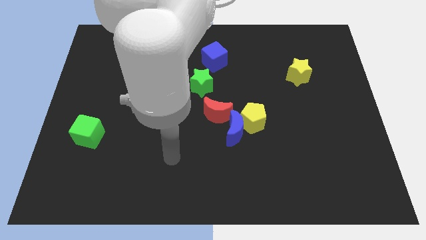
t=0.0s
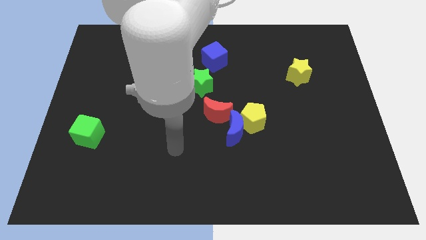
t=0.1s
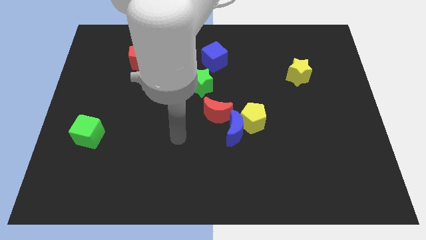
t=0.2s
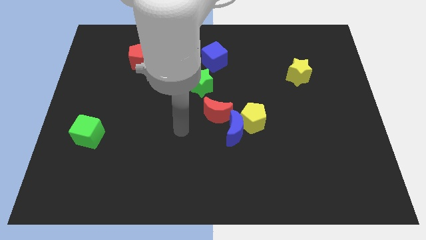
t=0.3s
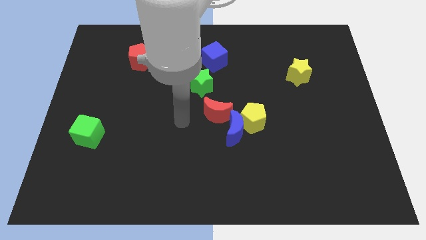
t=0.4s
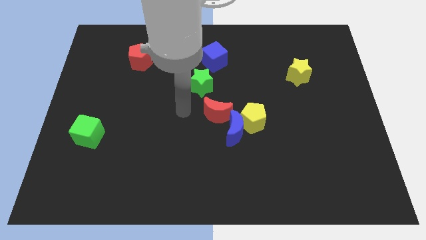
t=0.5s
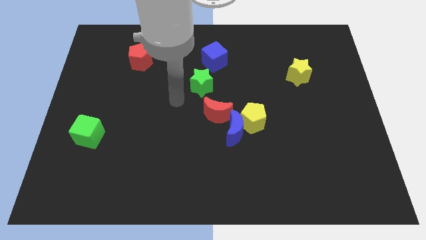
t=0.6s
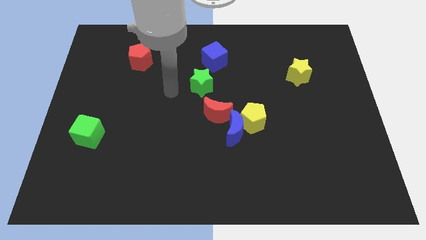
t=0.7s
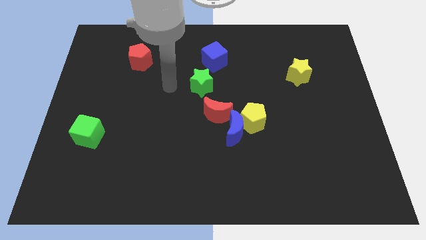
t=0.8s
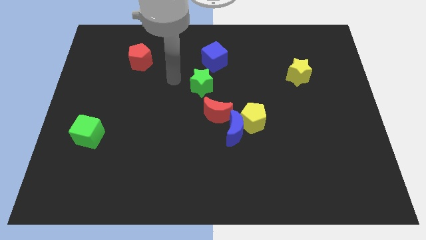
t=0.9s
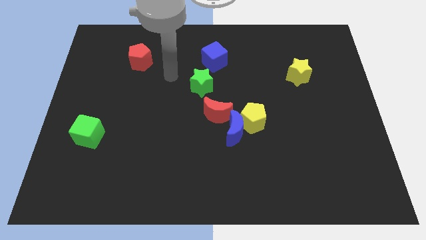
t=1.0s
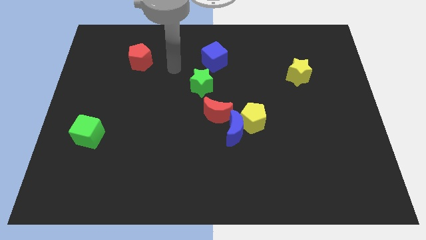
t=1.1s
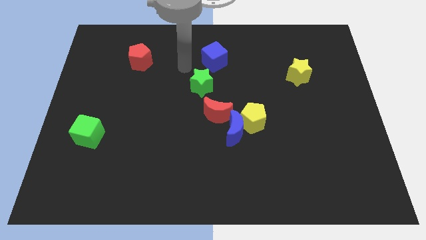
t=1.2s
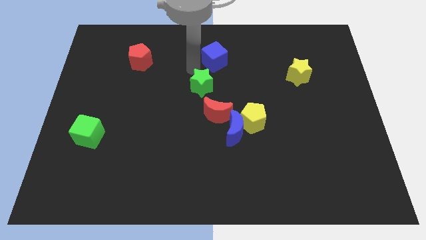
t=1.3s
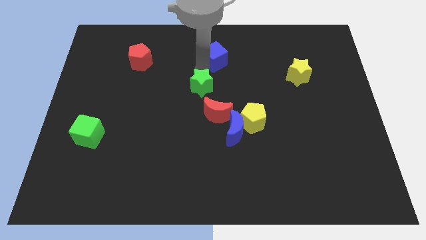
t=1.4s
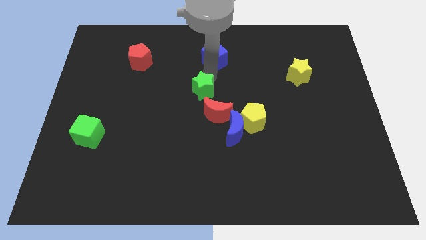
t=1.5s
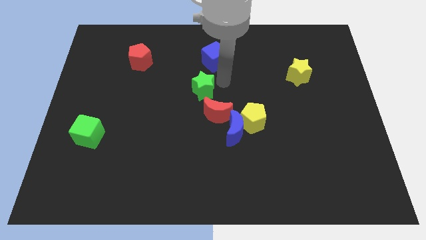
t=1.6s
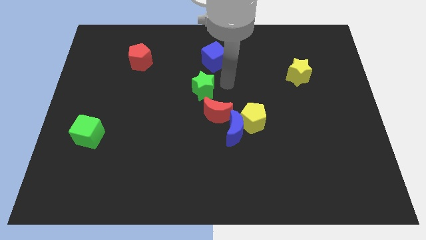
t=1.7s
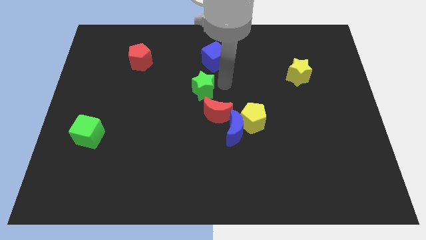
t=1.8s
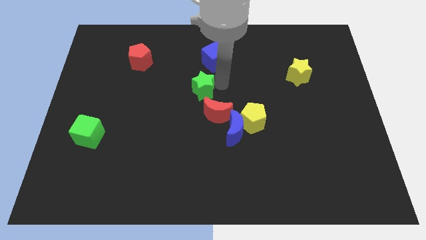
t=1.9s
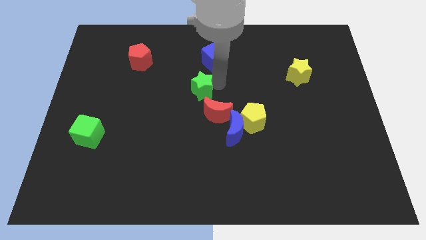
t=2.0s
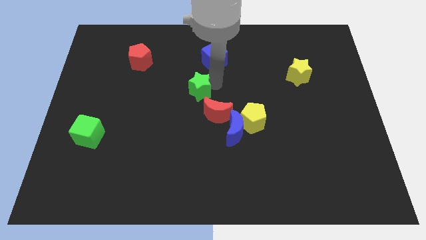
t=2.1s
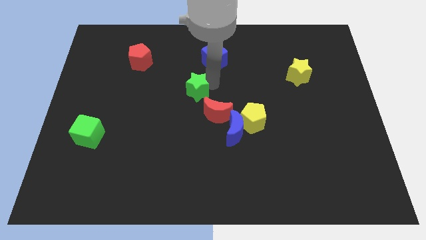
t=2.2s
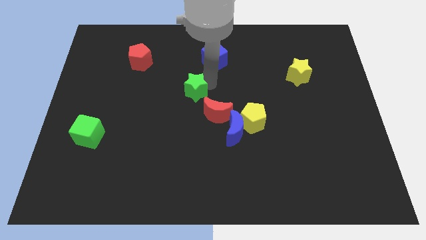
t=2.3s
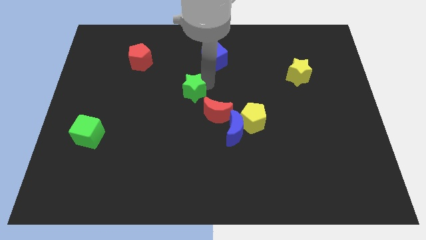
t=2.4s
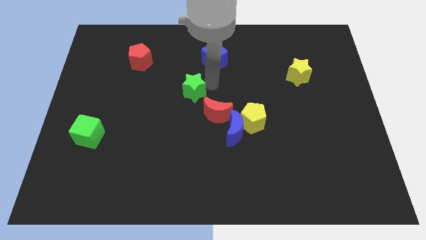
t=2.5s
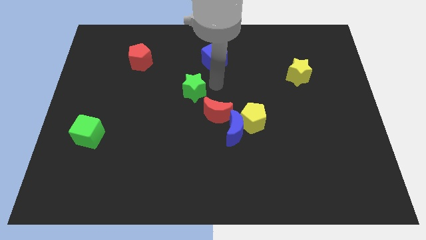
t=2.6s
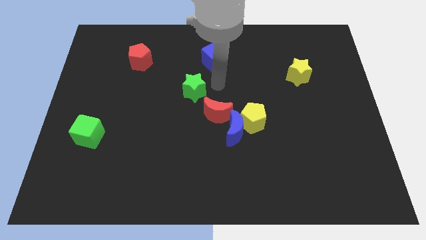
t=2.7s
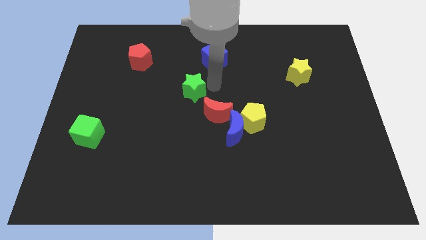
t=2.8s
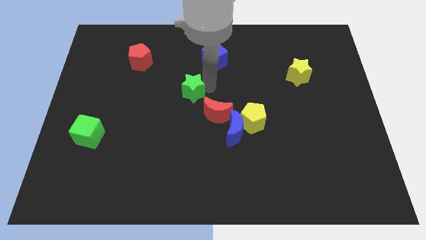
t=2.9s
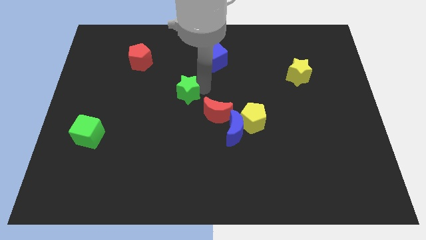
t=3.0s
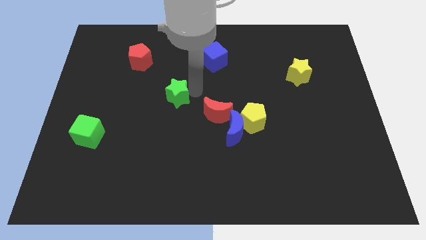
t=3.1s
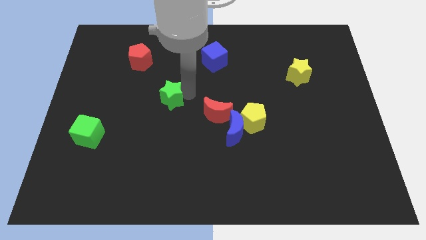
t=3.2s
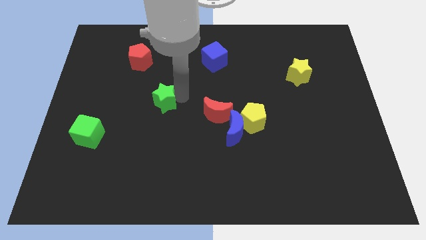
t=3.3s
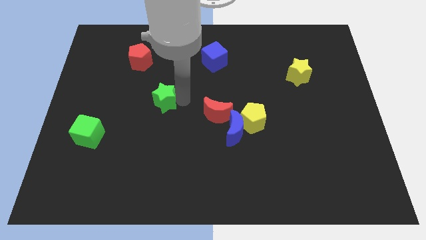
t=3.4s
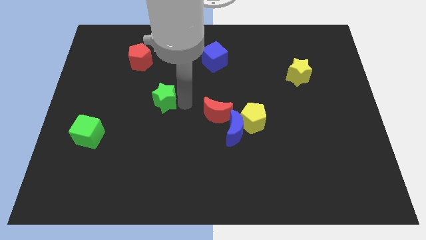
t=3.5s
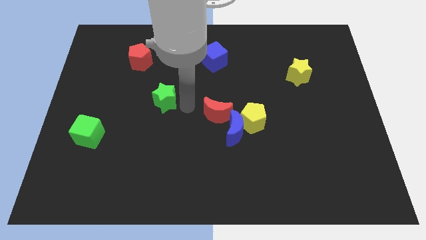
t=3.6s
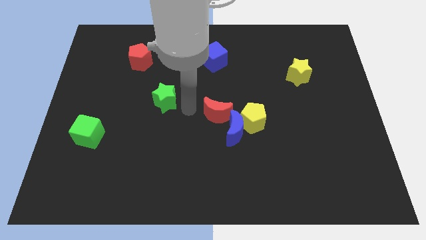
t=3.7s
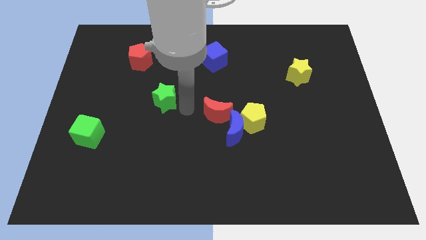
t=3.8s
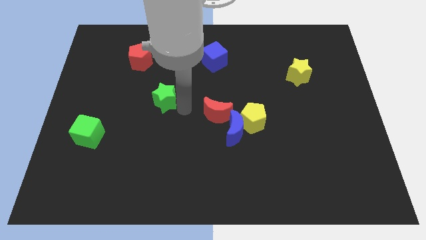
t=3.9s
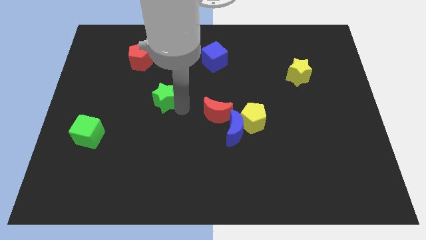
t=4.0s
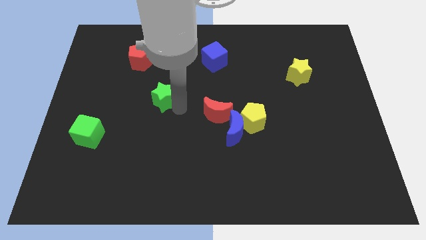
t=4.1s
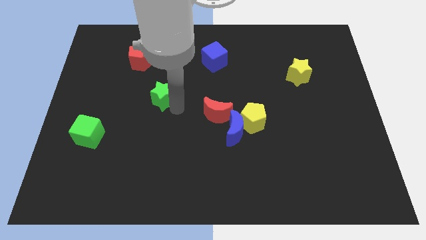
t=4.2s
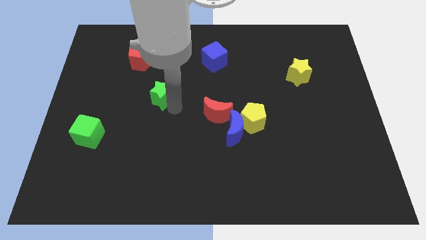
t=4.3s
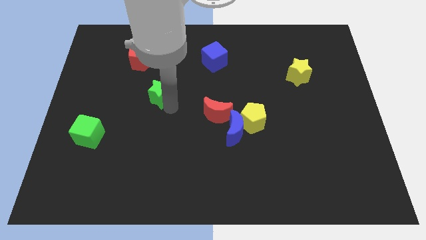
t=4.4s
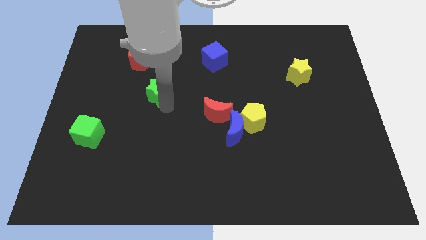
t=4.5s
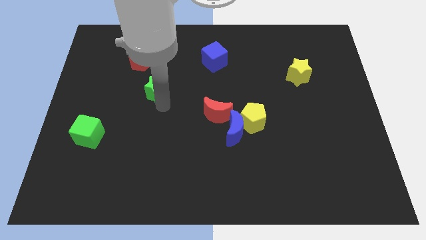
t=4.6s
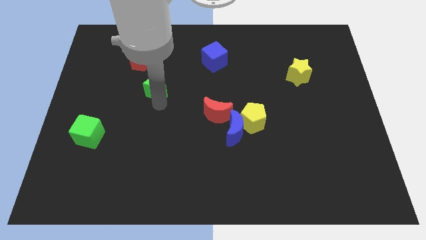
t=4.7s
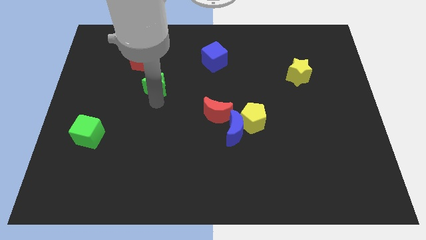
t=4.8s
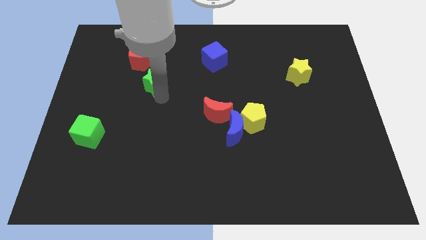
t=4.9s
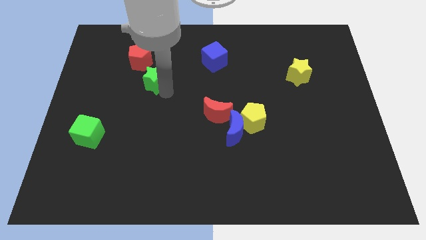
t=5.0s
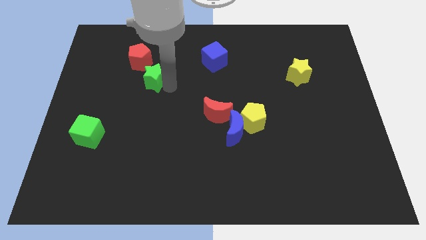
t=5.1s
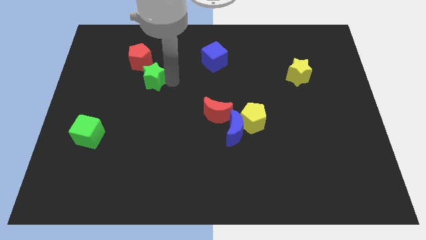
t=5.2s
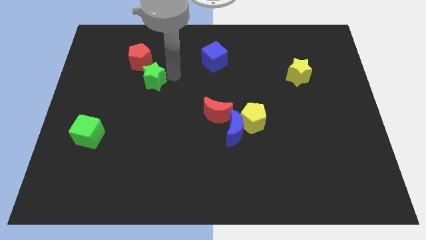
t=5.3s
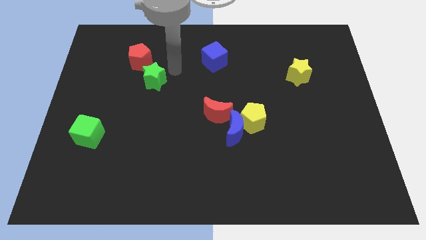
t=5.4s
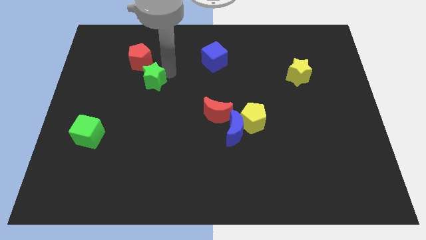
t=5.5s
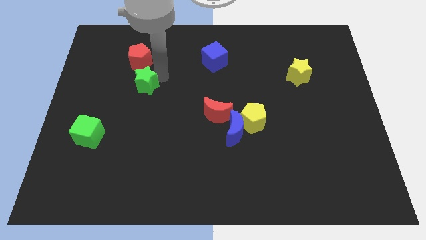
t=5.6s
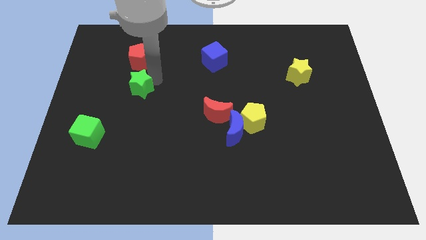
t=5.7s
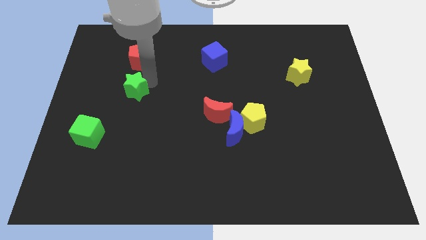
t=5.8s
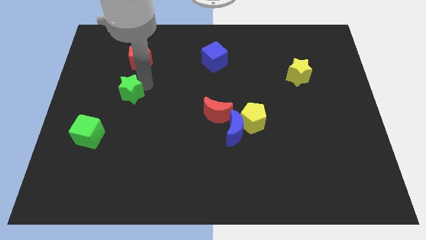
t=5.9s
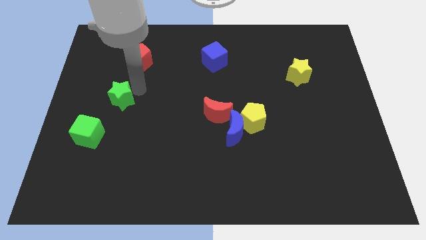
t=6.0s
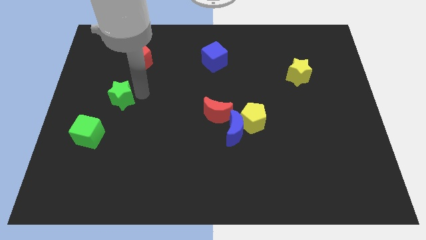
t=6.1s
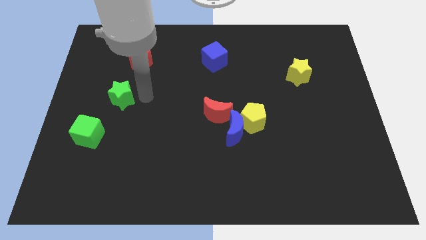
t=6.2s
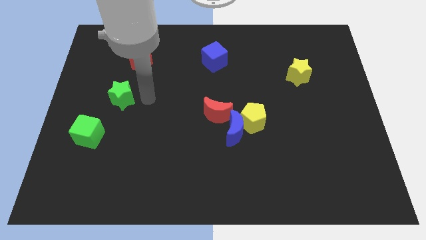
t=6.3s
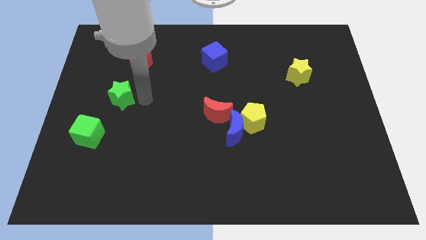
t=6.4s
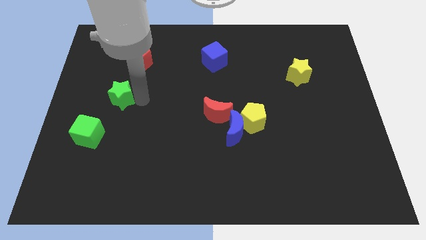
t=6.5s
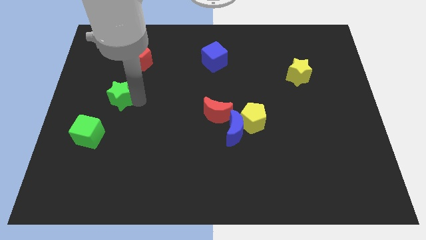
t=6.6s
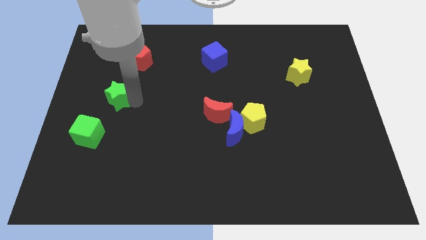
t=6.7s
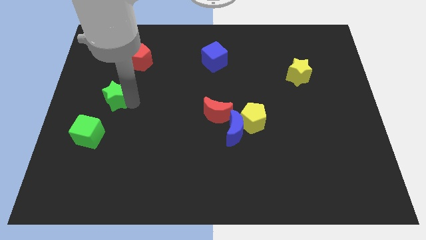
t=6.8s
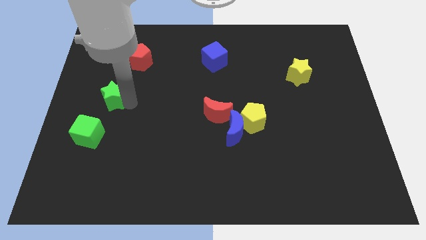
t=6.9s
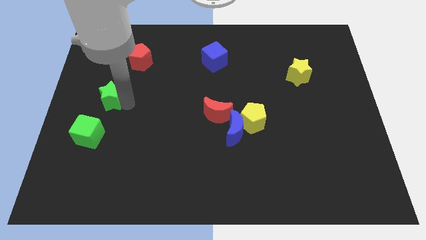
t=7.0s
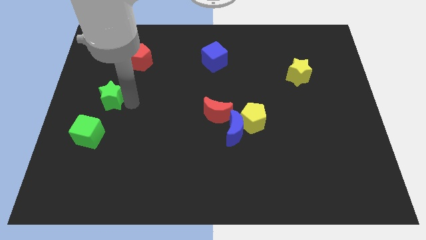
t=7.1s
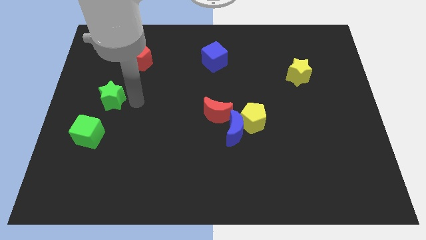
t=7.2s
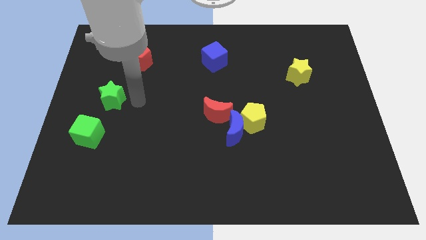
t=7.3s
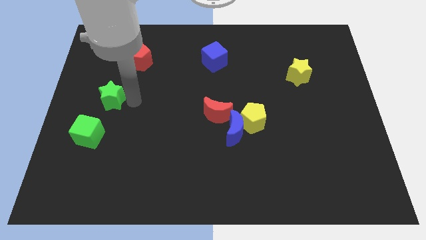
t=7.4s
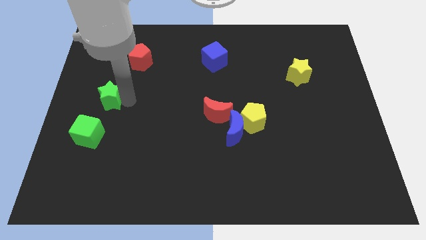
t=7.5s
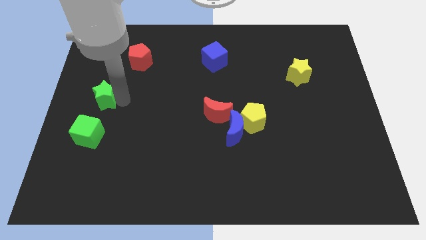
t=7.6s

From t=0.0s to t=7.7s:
move the green star to the left side
